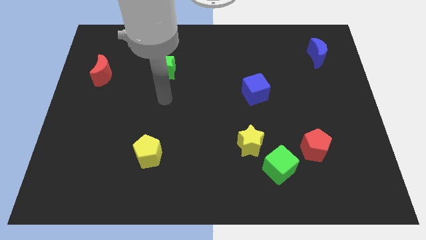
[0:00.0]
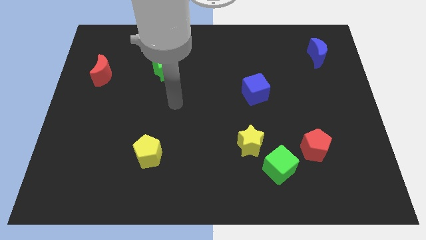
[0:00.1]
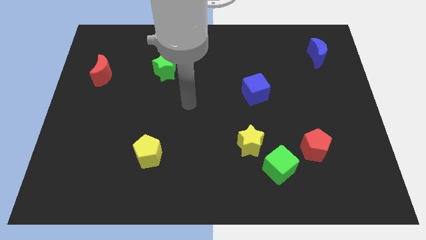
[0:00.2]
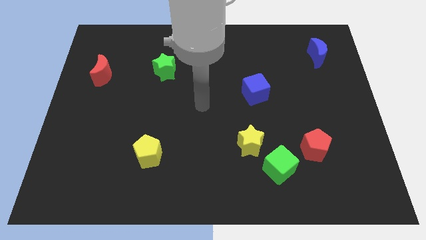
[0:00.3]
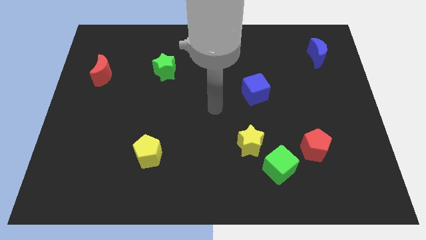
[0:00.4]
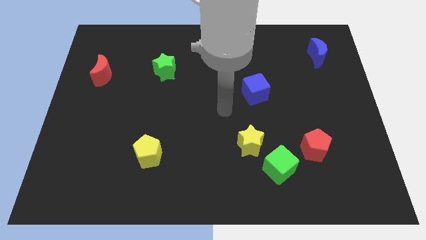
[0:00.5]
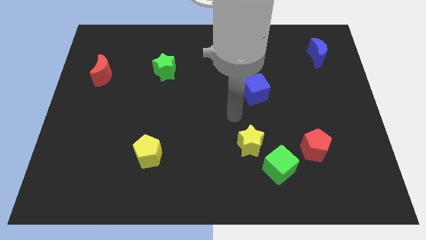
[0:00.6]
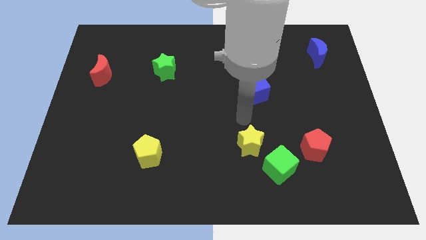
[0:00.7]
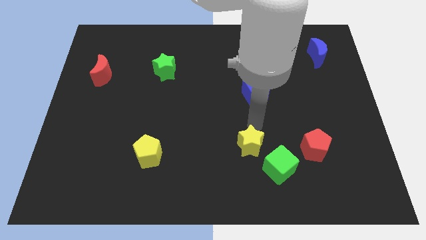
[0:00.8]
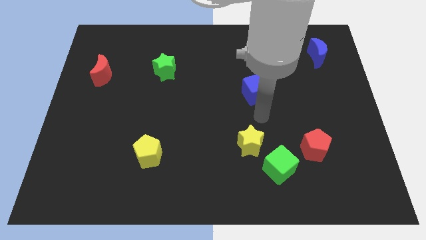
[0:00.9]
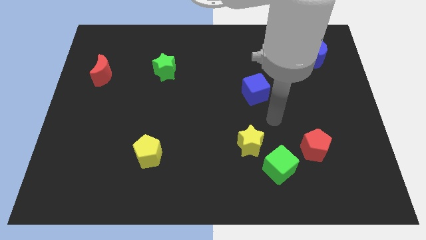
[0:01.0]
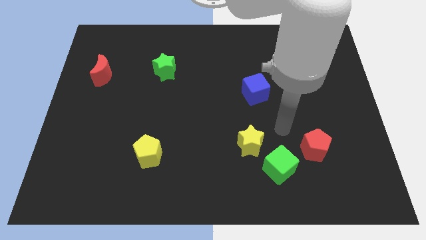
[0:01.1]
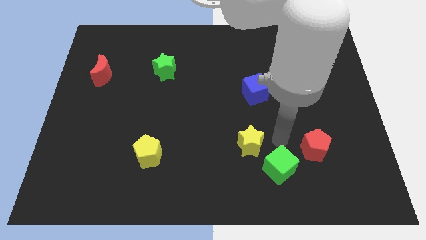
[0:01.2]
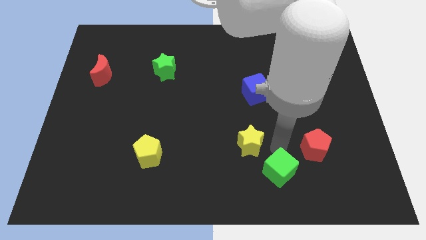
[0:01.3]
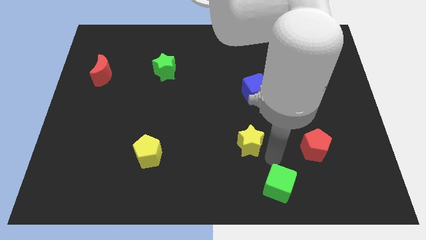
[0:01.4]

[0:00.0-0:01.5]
move the yellow star away from the green cube

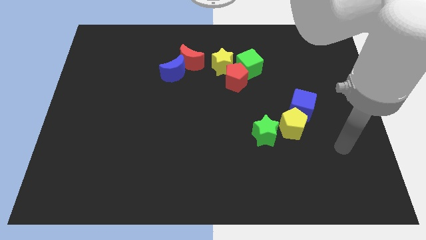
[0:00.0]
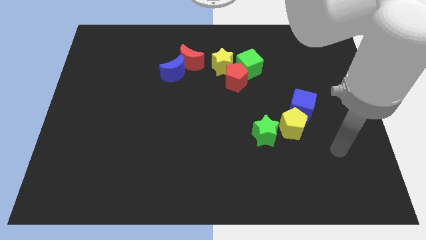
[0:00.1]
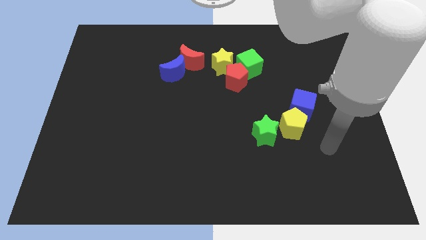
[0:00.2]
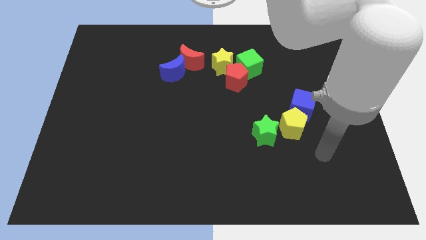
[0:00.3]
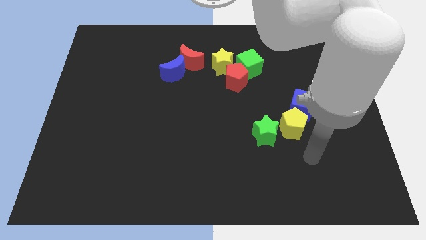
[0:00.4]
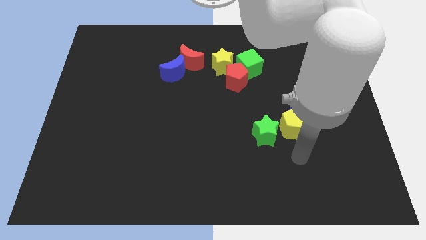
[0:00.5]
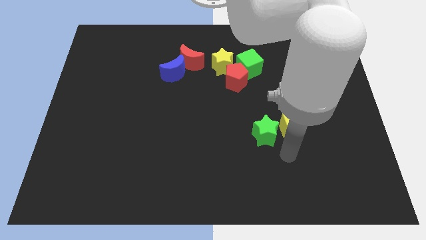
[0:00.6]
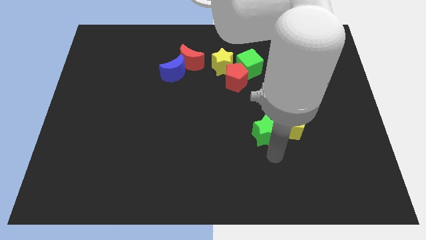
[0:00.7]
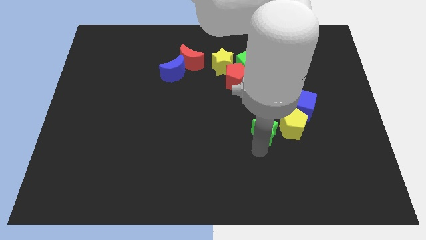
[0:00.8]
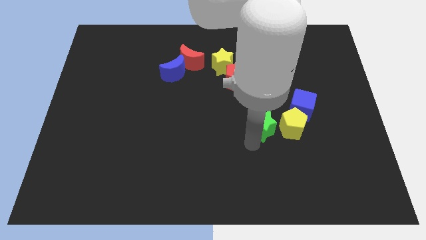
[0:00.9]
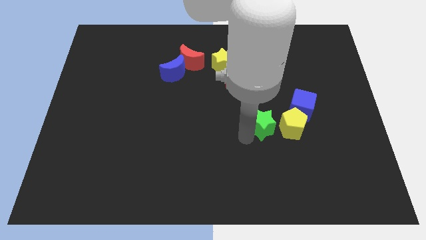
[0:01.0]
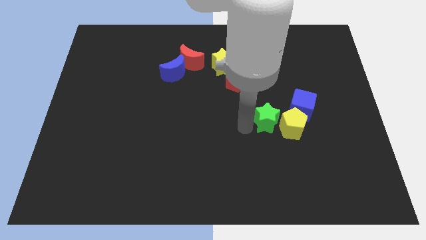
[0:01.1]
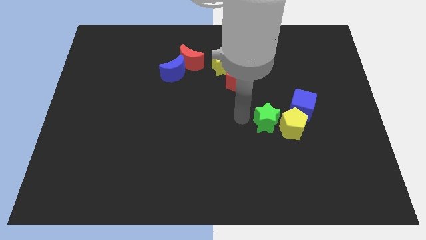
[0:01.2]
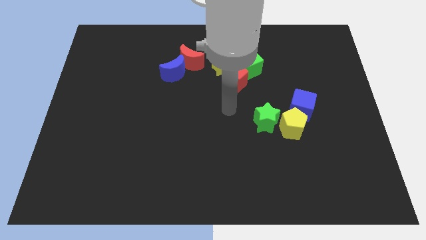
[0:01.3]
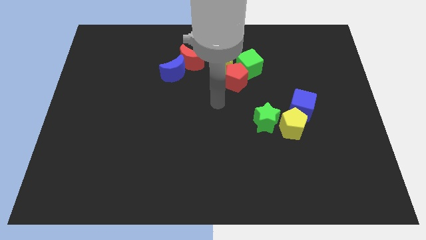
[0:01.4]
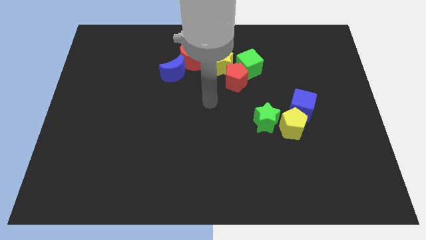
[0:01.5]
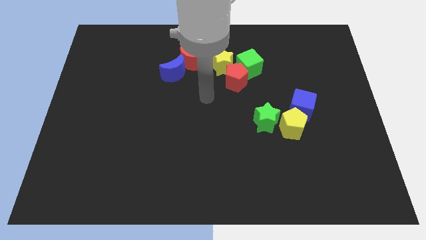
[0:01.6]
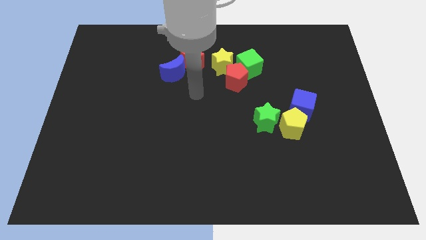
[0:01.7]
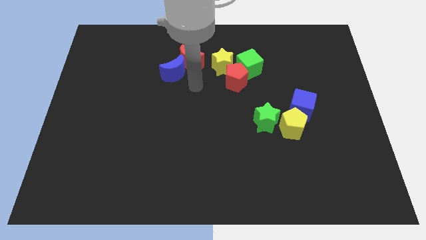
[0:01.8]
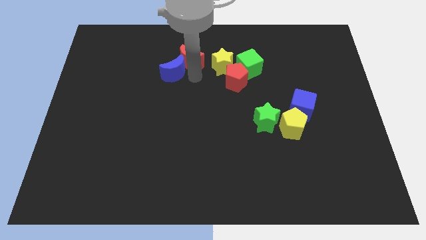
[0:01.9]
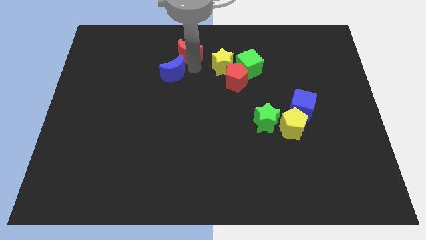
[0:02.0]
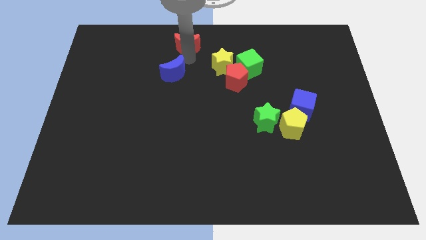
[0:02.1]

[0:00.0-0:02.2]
pull the blue moon apart from the red moon

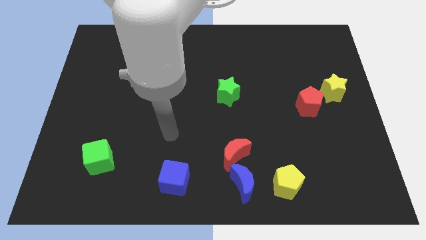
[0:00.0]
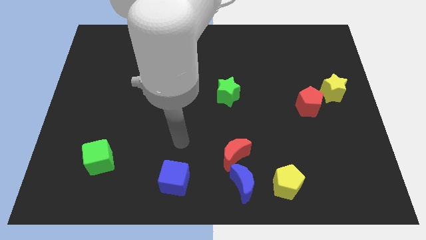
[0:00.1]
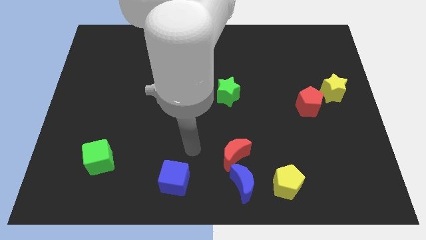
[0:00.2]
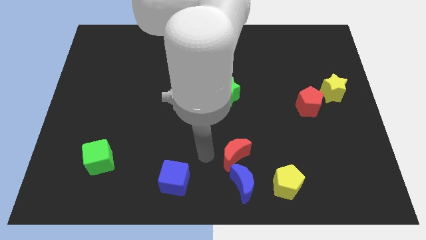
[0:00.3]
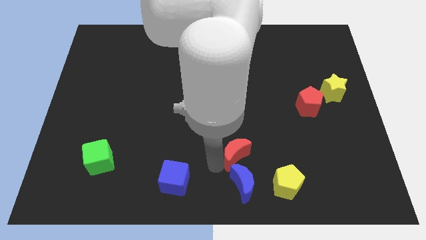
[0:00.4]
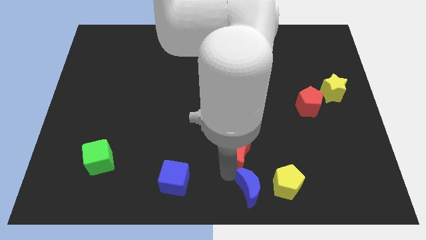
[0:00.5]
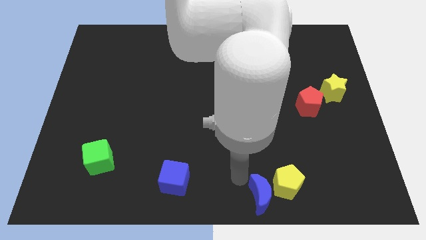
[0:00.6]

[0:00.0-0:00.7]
pull the red moon apart from the blue moon

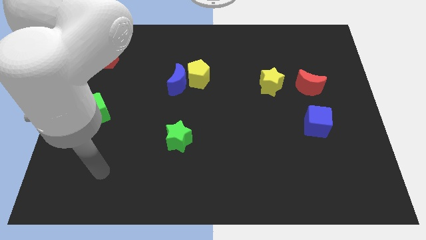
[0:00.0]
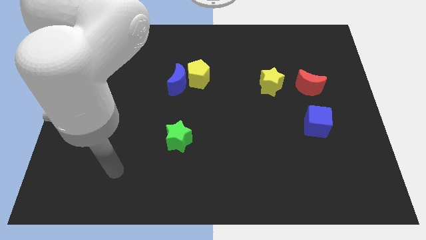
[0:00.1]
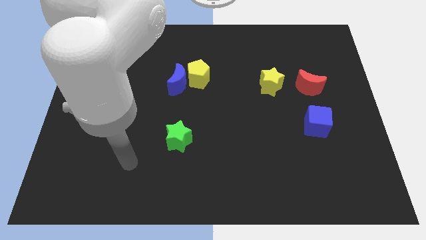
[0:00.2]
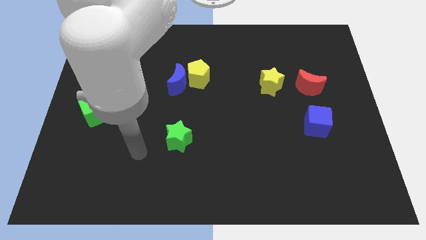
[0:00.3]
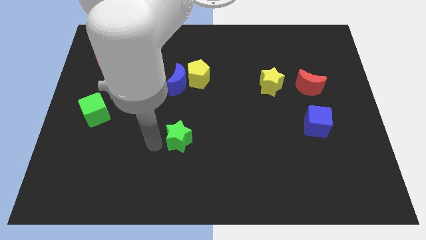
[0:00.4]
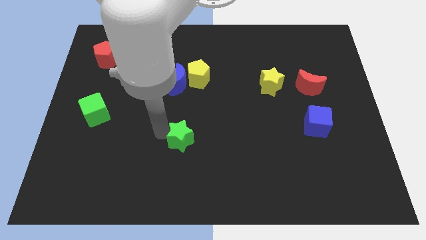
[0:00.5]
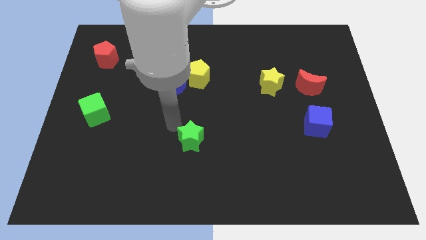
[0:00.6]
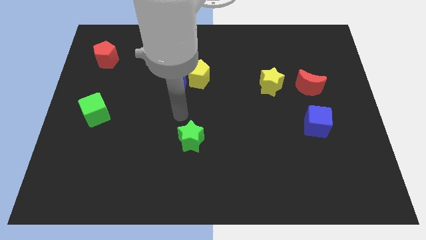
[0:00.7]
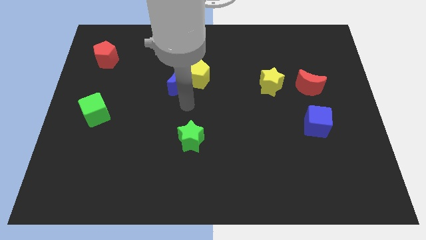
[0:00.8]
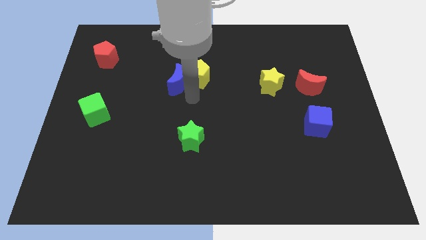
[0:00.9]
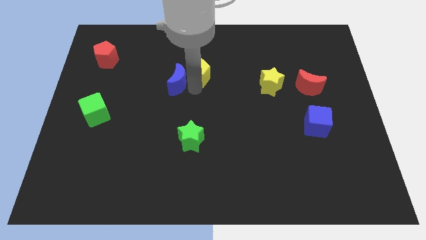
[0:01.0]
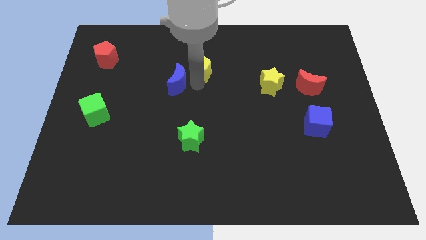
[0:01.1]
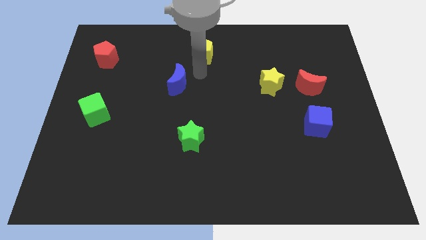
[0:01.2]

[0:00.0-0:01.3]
move the blue moon away from the yellow pentagon

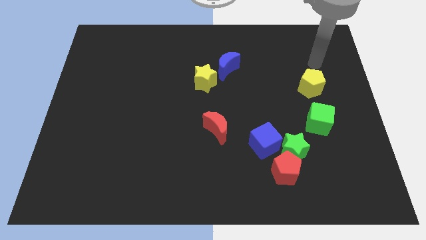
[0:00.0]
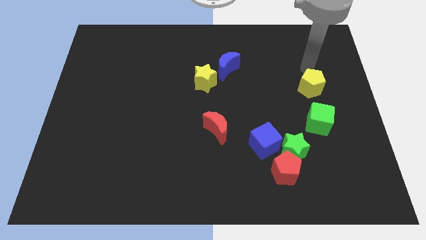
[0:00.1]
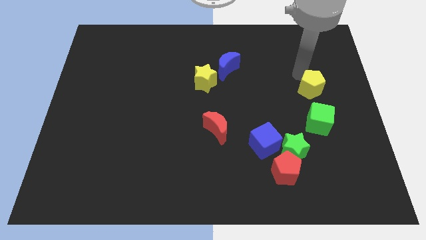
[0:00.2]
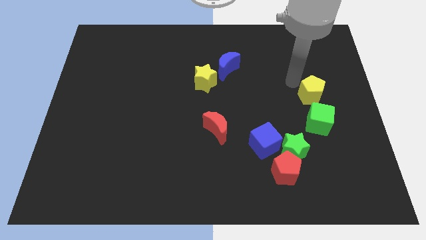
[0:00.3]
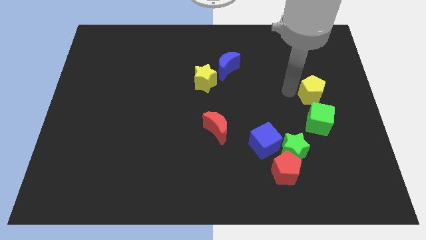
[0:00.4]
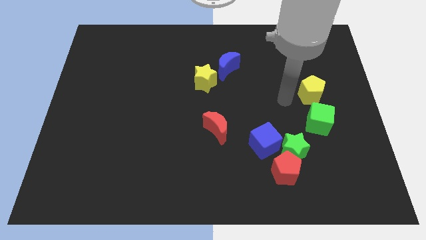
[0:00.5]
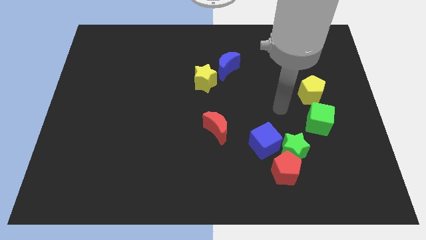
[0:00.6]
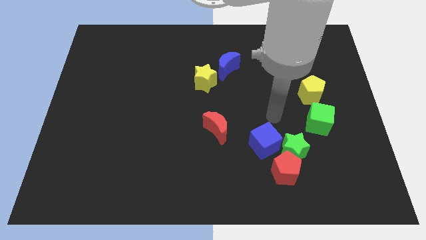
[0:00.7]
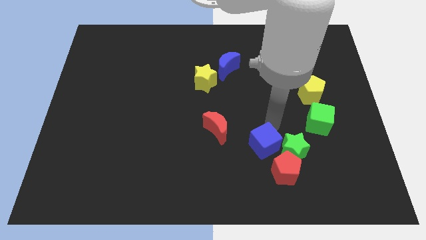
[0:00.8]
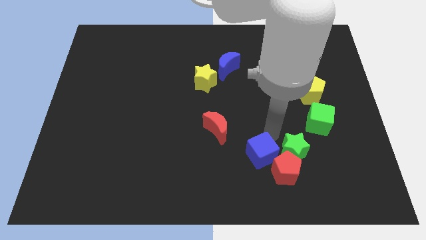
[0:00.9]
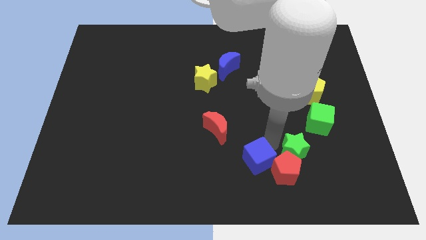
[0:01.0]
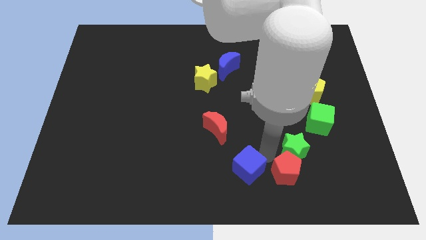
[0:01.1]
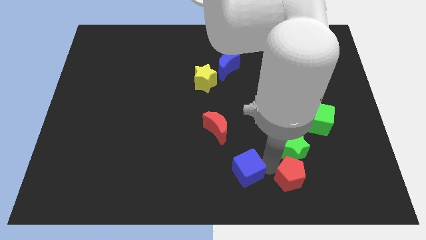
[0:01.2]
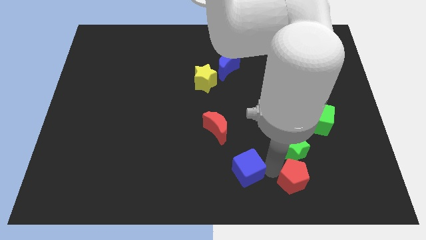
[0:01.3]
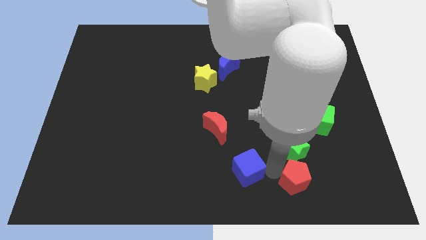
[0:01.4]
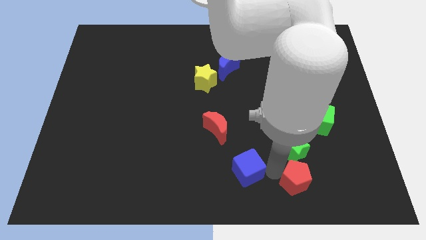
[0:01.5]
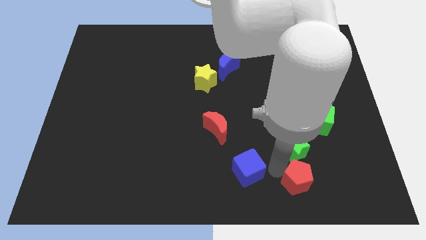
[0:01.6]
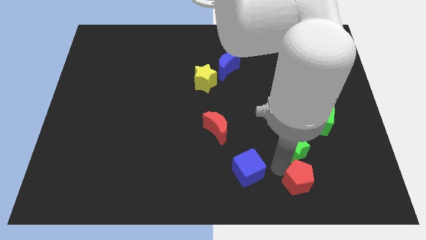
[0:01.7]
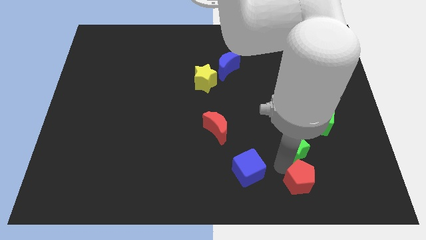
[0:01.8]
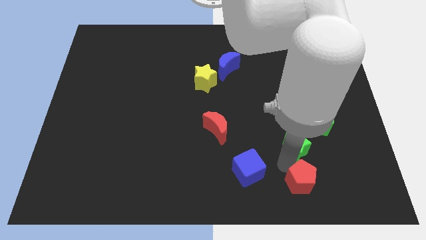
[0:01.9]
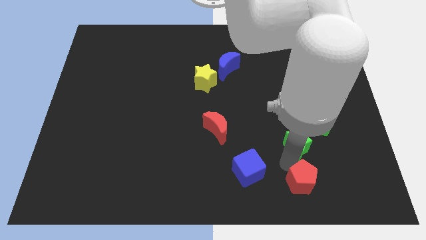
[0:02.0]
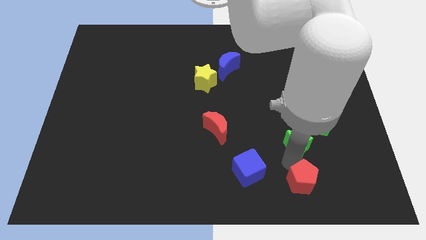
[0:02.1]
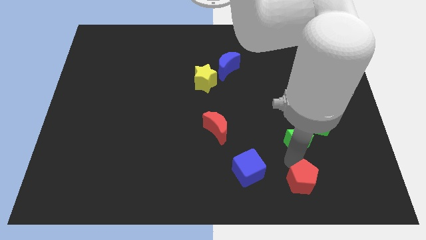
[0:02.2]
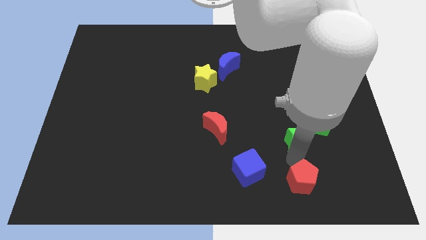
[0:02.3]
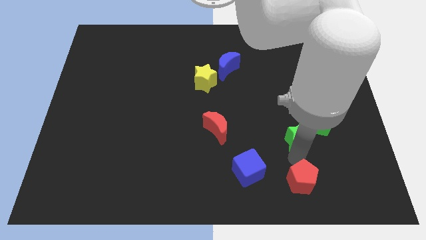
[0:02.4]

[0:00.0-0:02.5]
move the green star away from the red pentagon and blue cube

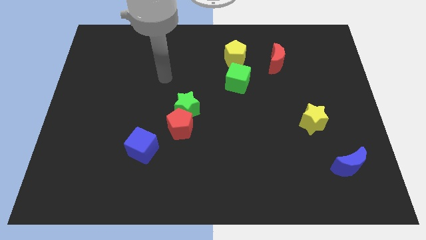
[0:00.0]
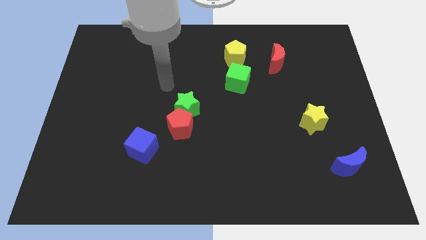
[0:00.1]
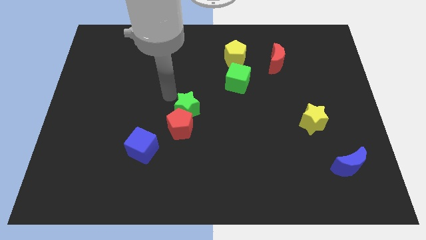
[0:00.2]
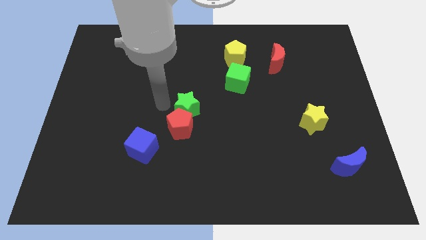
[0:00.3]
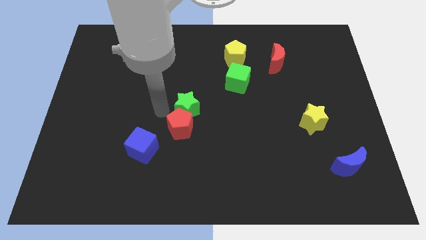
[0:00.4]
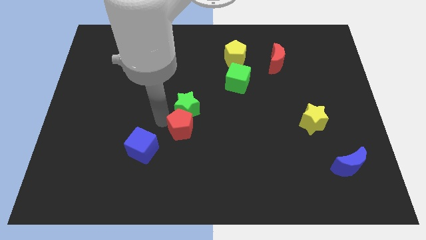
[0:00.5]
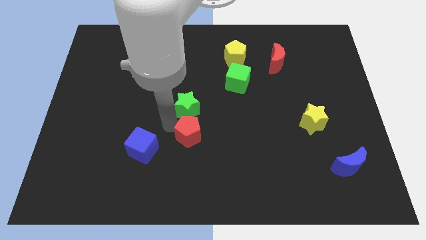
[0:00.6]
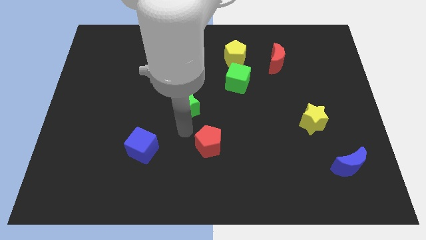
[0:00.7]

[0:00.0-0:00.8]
move the green star away from the red pentagon

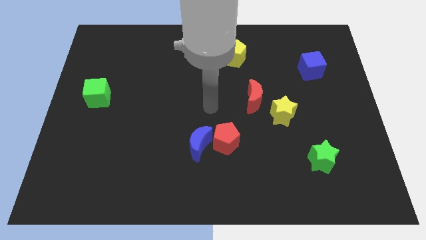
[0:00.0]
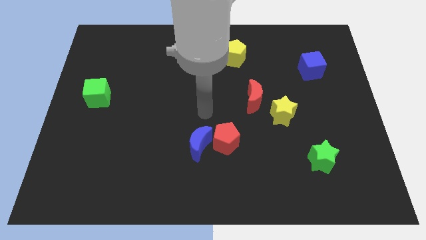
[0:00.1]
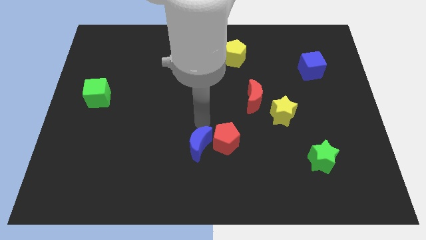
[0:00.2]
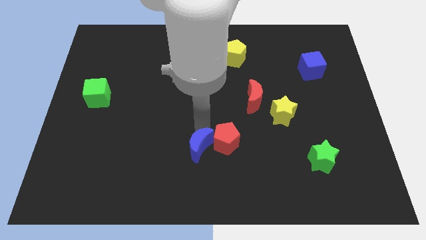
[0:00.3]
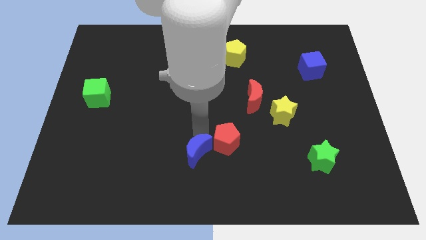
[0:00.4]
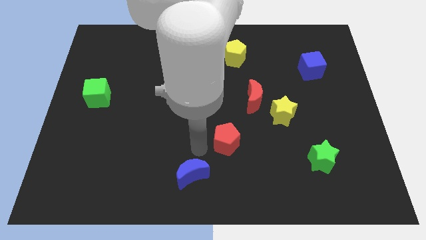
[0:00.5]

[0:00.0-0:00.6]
move the red pentagon away from the blue moon
